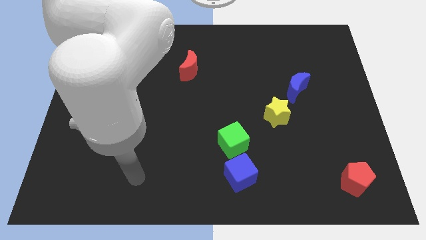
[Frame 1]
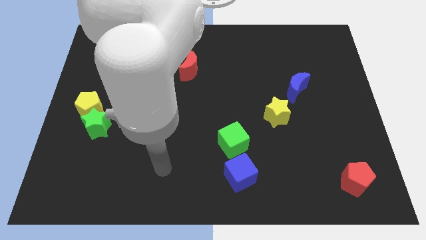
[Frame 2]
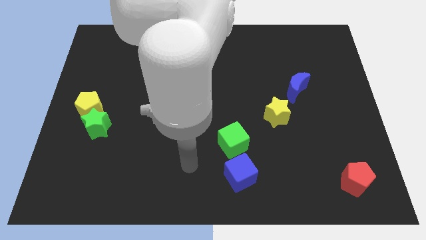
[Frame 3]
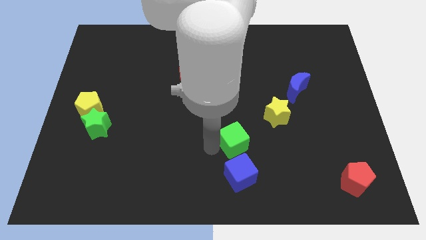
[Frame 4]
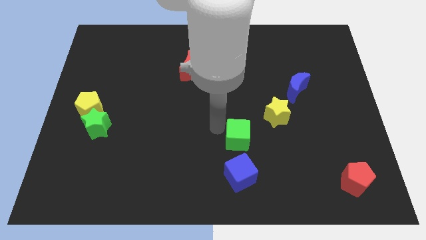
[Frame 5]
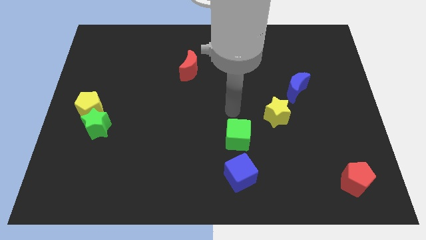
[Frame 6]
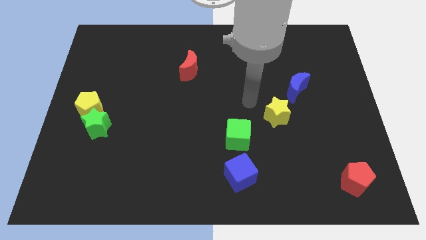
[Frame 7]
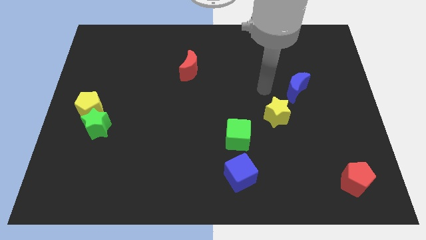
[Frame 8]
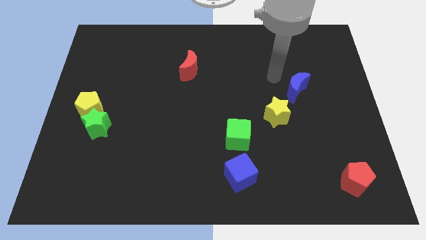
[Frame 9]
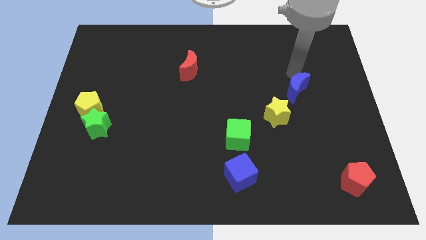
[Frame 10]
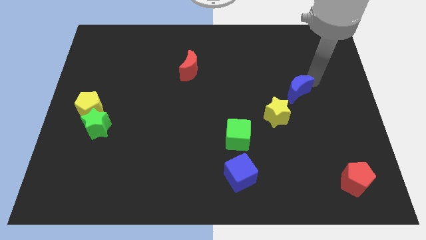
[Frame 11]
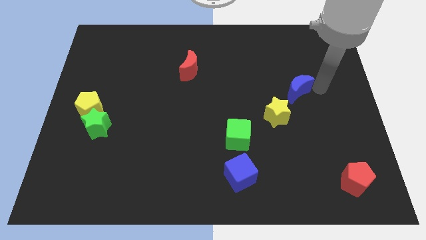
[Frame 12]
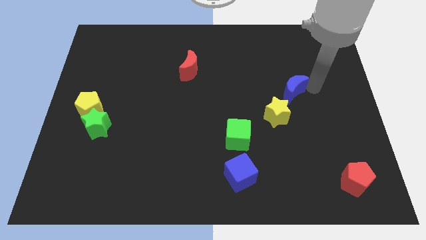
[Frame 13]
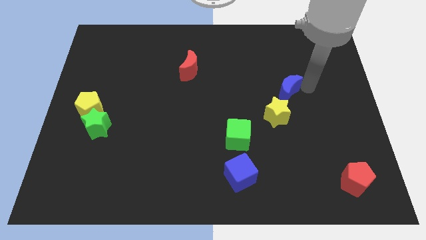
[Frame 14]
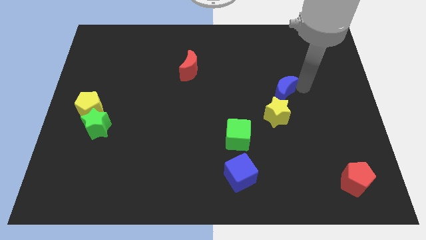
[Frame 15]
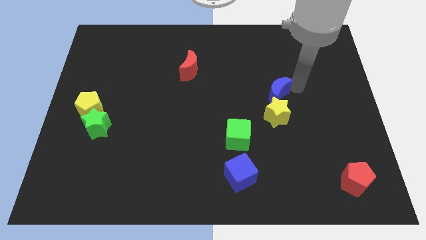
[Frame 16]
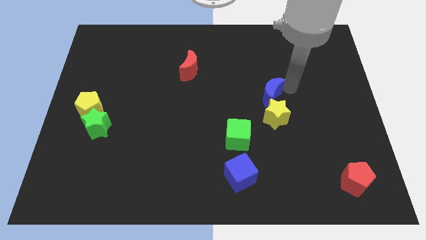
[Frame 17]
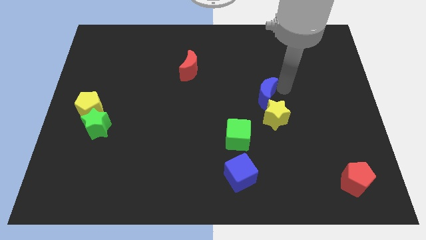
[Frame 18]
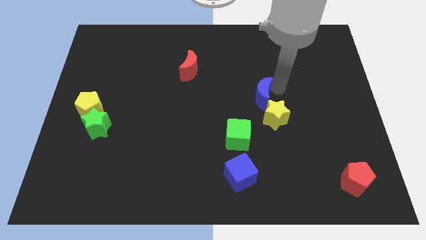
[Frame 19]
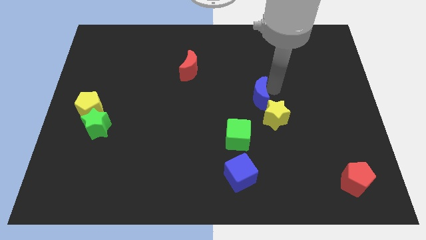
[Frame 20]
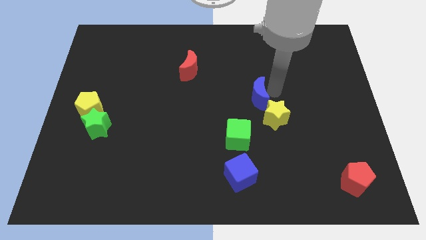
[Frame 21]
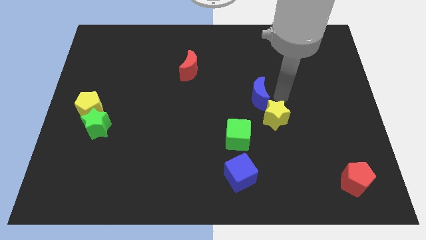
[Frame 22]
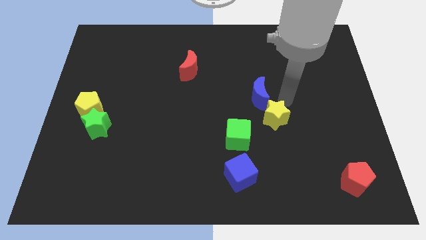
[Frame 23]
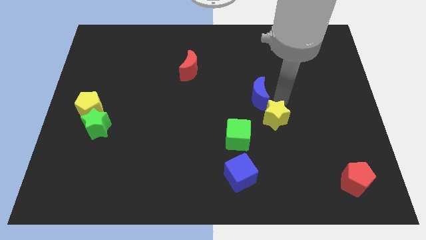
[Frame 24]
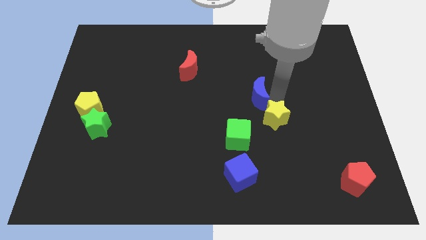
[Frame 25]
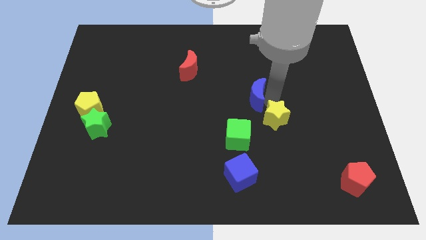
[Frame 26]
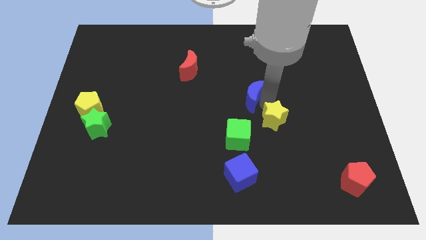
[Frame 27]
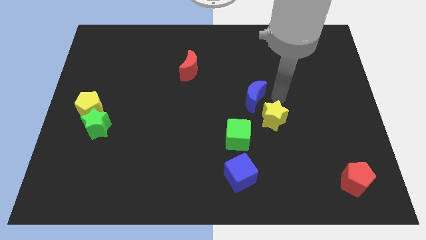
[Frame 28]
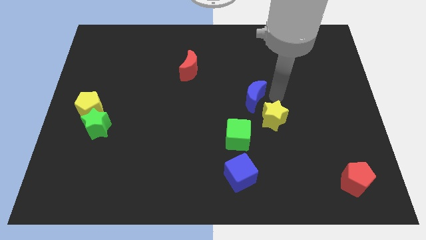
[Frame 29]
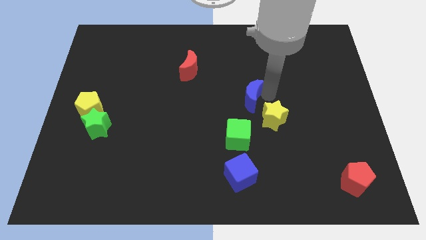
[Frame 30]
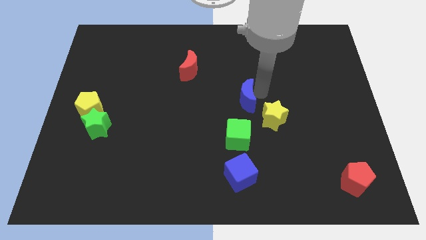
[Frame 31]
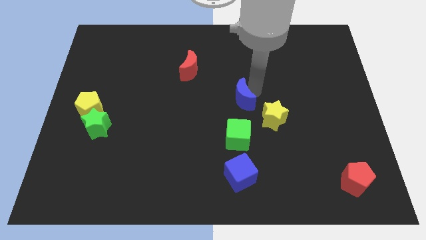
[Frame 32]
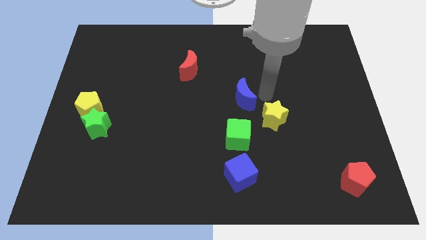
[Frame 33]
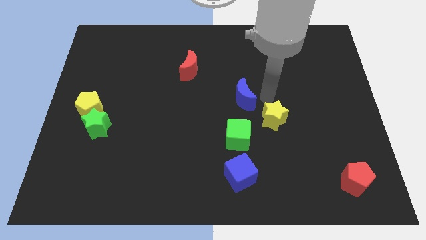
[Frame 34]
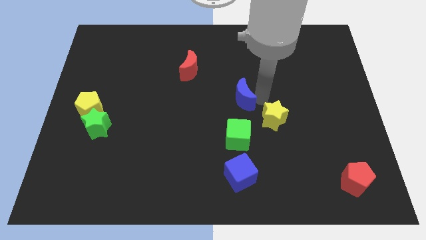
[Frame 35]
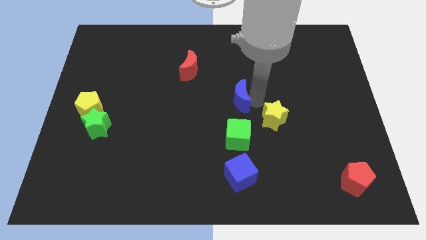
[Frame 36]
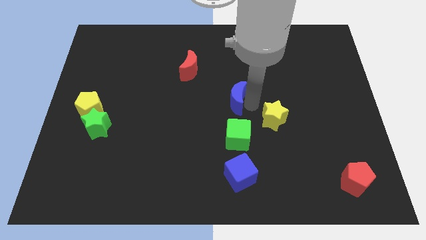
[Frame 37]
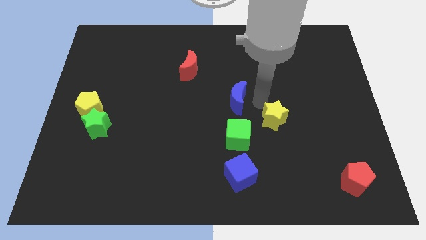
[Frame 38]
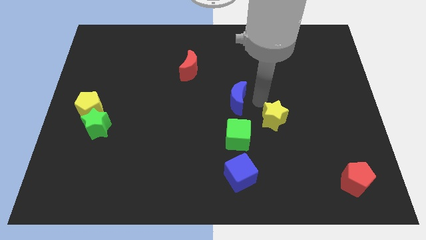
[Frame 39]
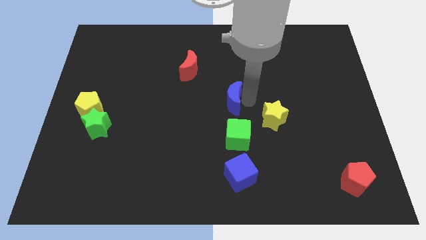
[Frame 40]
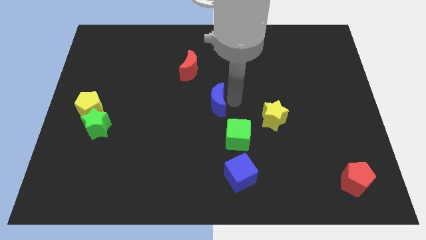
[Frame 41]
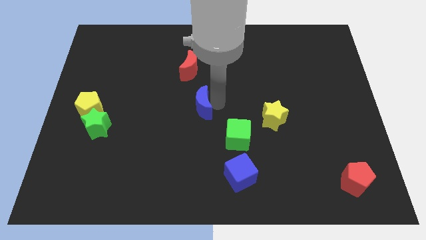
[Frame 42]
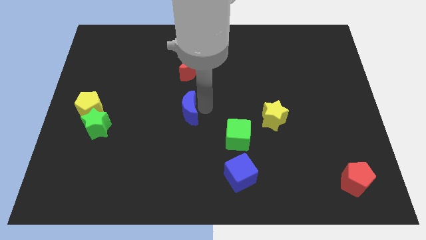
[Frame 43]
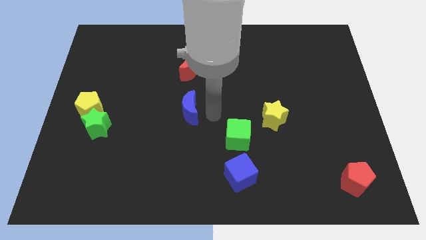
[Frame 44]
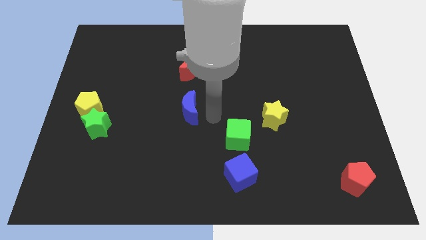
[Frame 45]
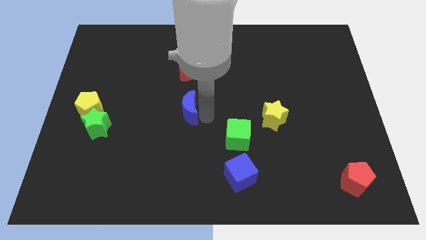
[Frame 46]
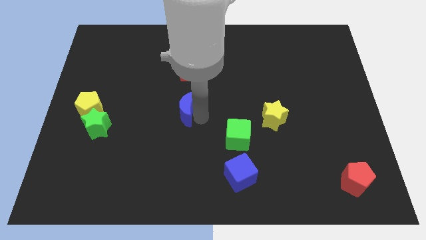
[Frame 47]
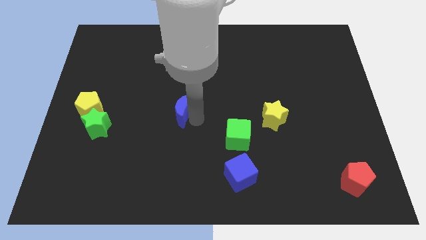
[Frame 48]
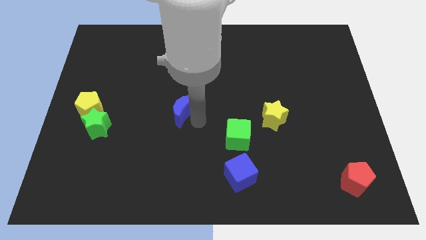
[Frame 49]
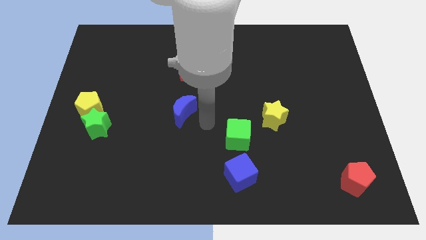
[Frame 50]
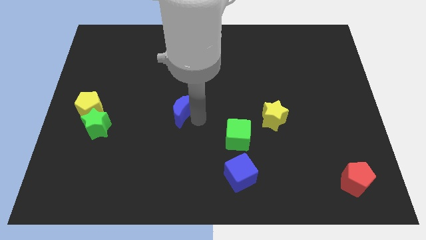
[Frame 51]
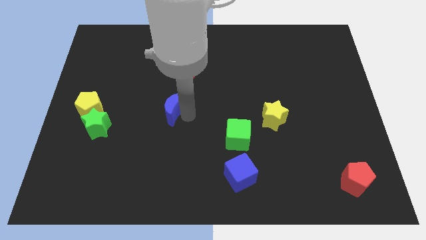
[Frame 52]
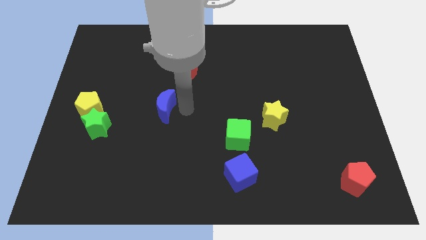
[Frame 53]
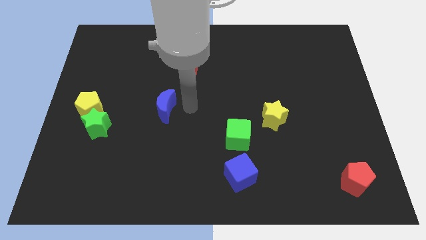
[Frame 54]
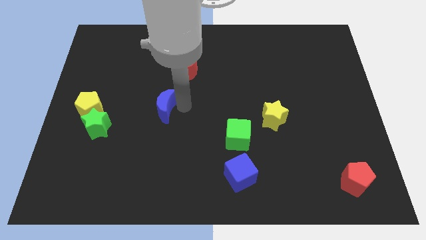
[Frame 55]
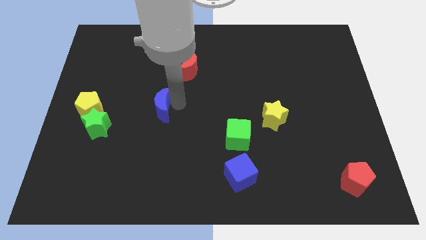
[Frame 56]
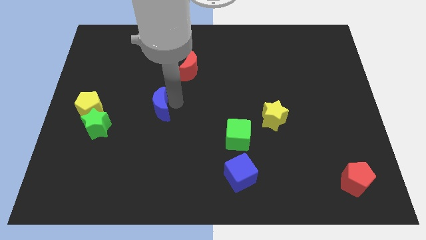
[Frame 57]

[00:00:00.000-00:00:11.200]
push the blue moon to the right of the yellow pentagon

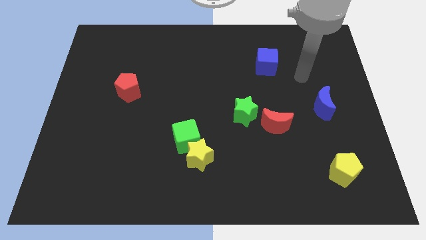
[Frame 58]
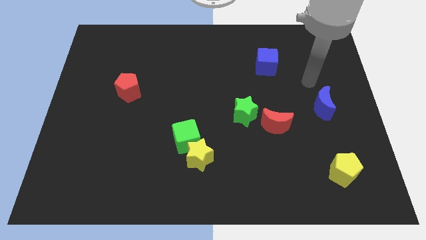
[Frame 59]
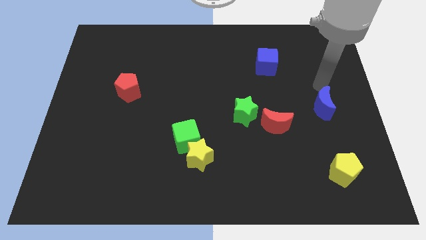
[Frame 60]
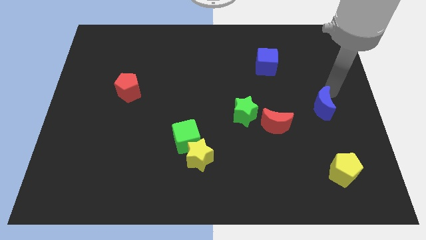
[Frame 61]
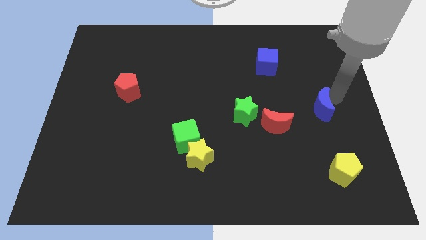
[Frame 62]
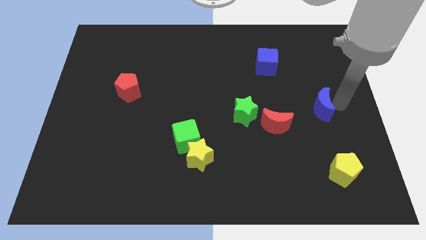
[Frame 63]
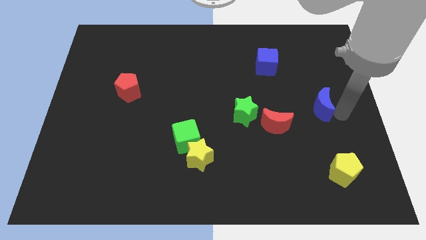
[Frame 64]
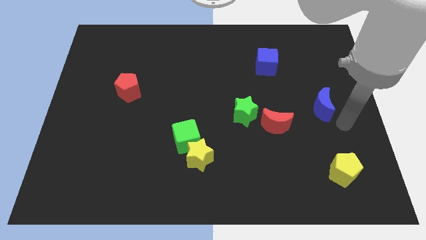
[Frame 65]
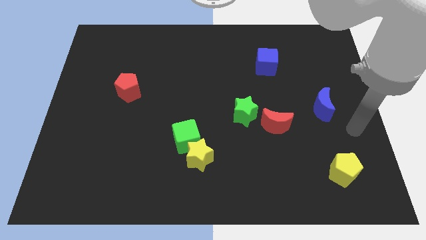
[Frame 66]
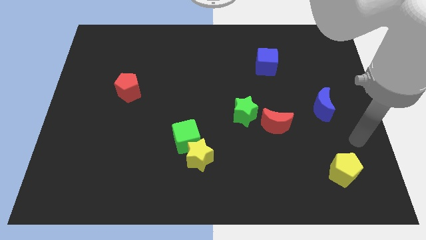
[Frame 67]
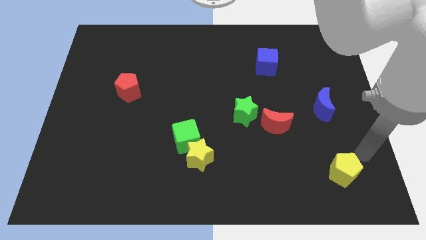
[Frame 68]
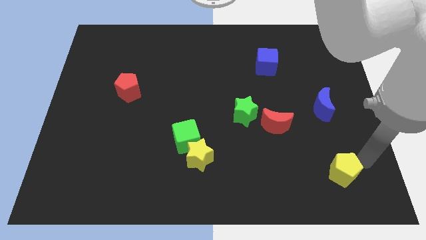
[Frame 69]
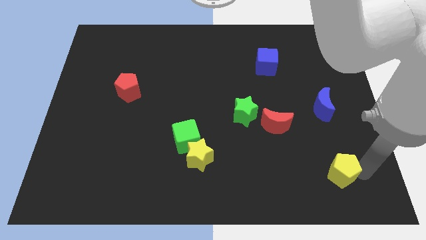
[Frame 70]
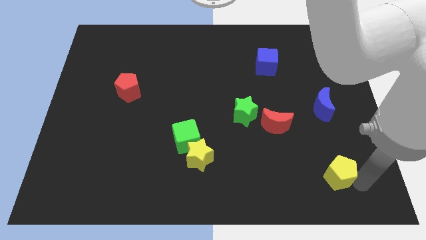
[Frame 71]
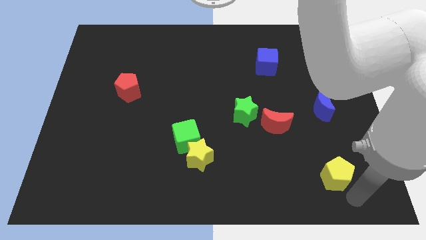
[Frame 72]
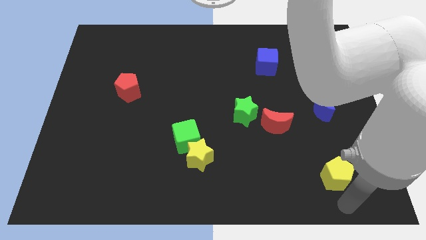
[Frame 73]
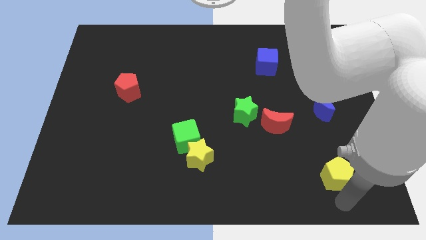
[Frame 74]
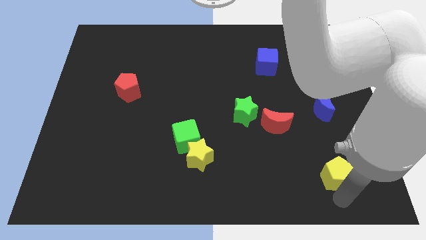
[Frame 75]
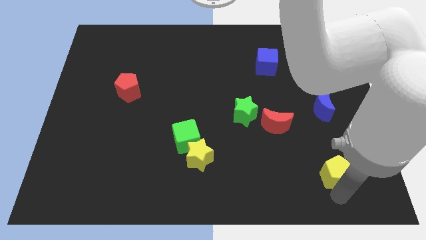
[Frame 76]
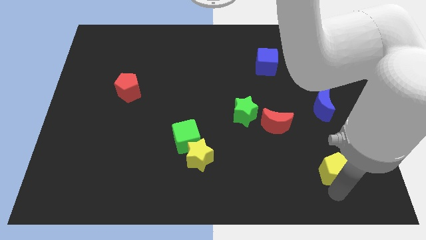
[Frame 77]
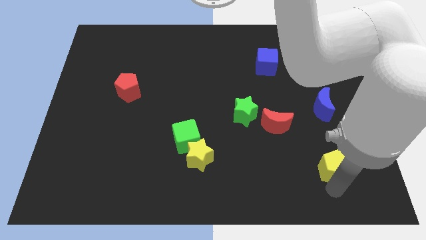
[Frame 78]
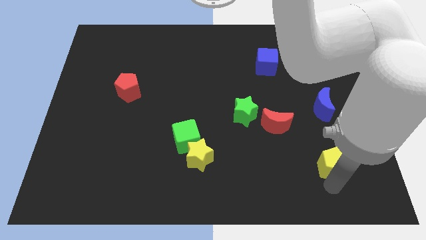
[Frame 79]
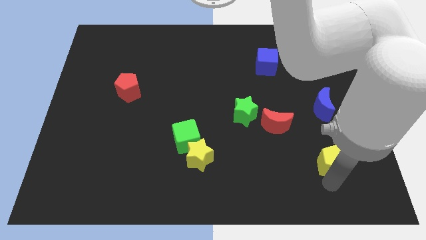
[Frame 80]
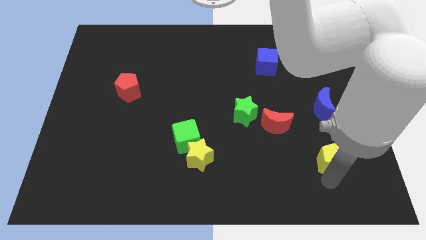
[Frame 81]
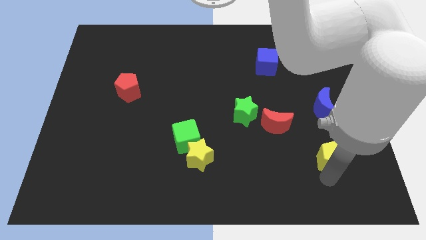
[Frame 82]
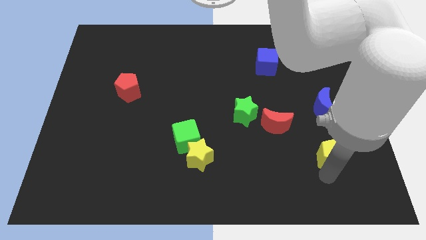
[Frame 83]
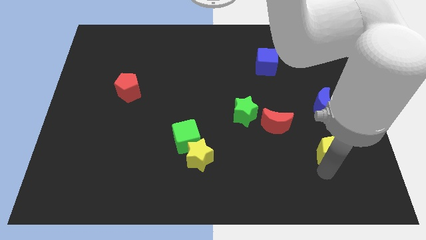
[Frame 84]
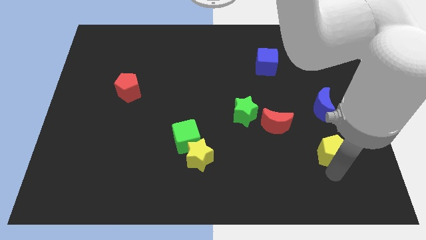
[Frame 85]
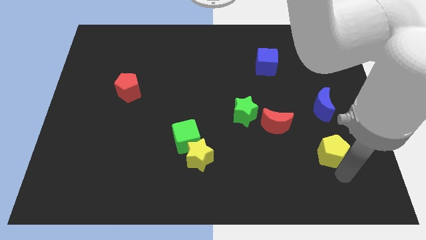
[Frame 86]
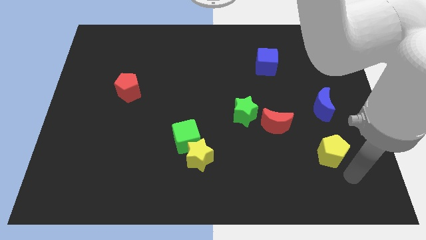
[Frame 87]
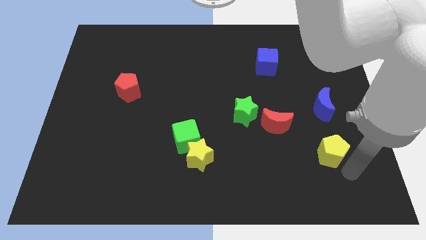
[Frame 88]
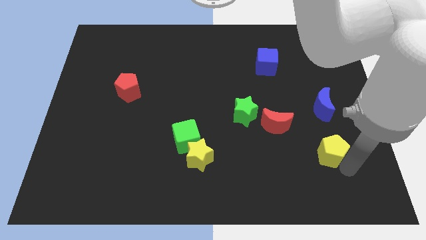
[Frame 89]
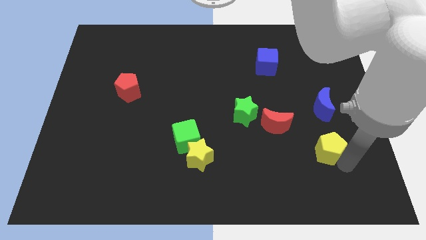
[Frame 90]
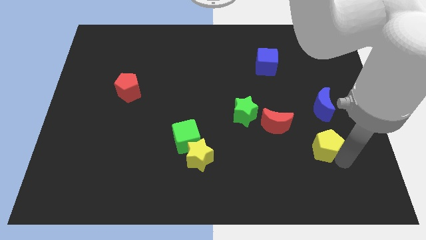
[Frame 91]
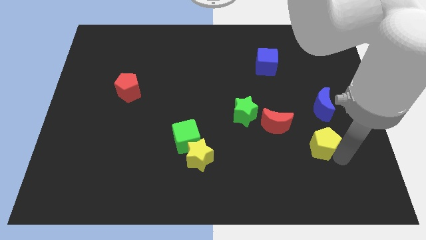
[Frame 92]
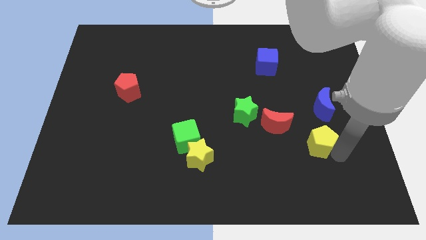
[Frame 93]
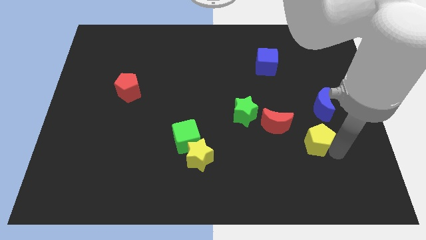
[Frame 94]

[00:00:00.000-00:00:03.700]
push the yellow pentagon diagonally down and to the left of the blue moon
